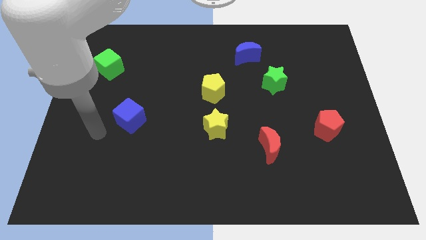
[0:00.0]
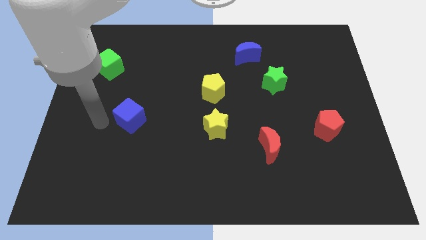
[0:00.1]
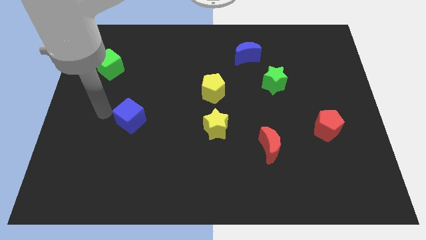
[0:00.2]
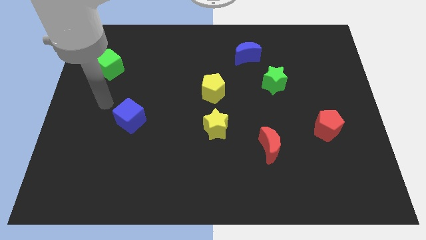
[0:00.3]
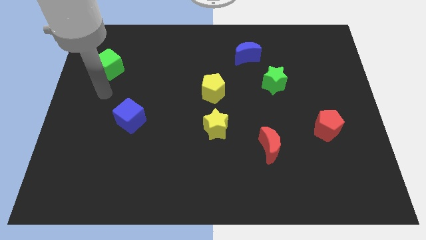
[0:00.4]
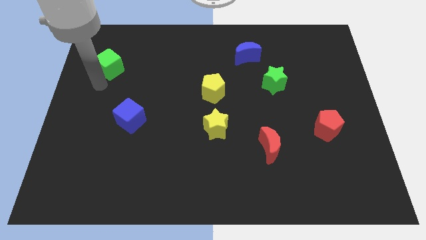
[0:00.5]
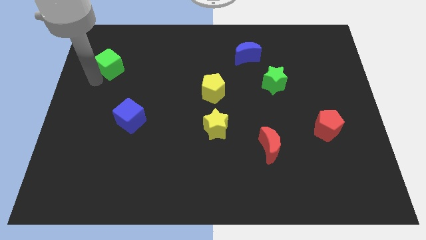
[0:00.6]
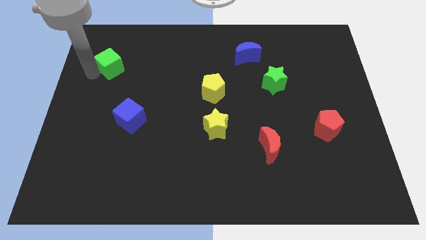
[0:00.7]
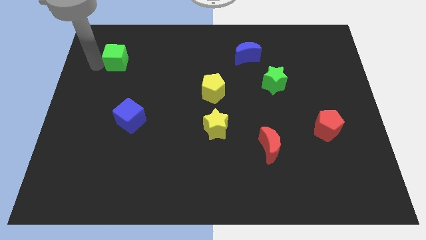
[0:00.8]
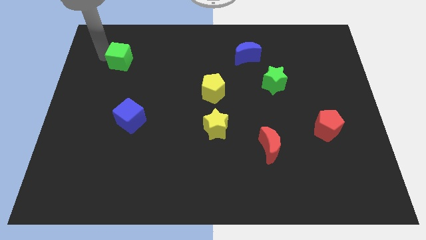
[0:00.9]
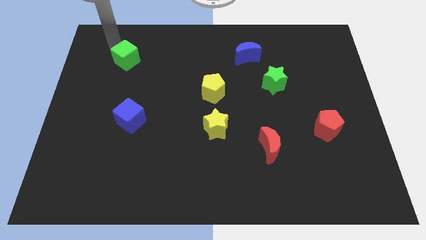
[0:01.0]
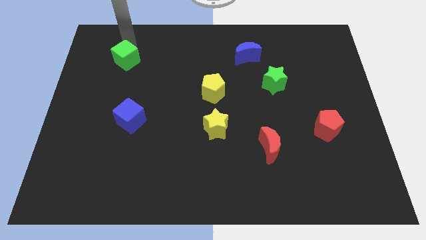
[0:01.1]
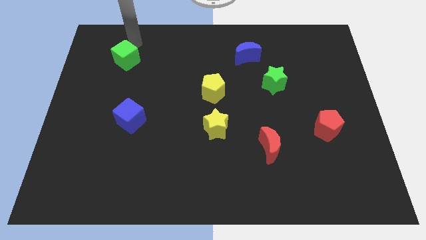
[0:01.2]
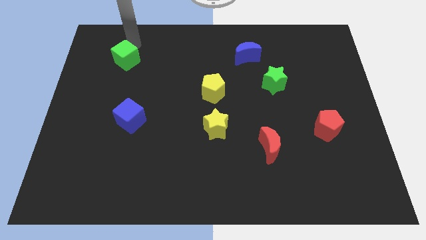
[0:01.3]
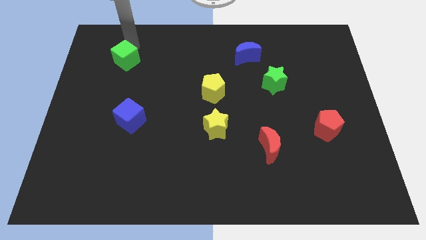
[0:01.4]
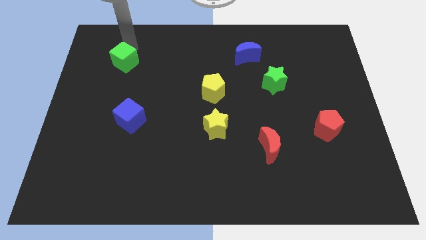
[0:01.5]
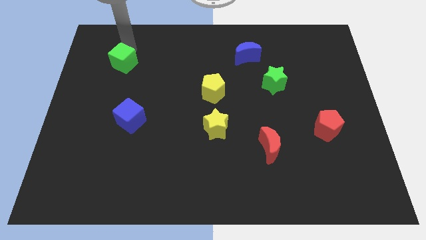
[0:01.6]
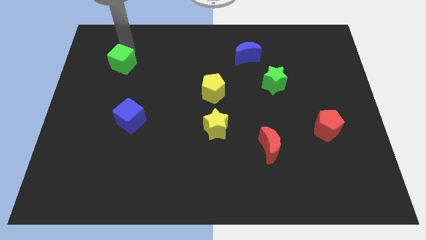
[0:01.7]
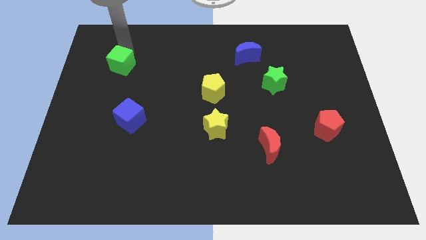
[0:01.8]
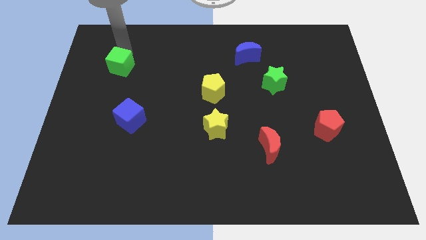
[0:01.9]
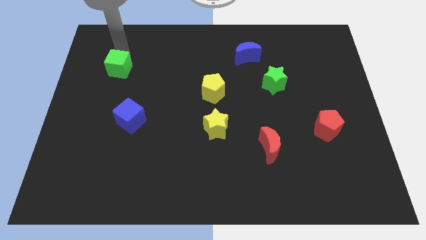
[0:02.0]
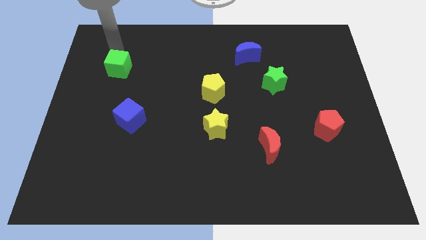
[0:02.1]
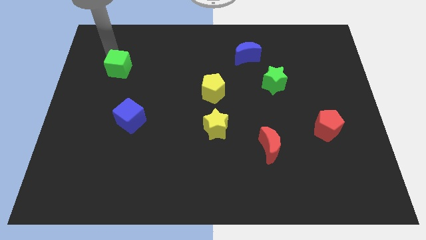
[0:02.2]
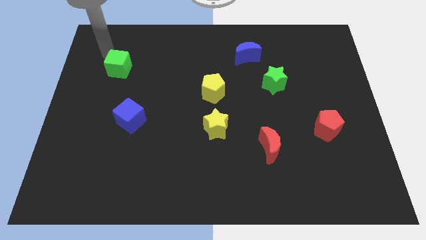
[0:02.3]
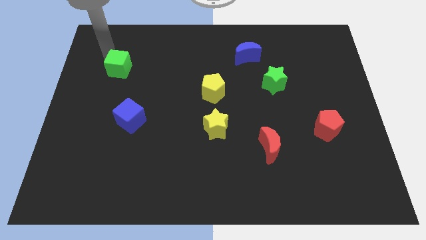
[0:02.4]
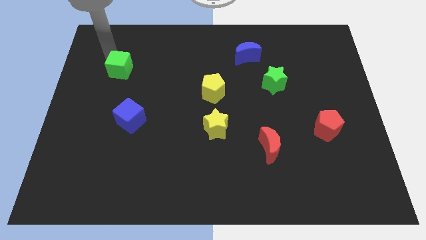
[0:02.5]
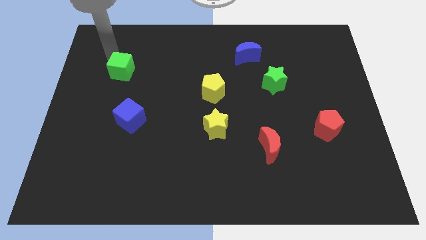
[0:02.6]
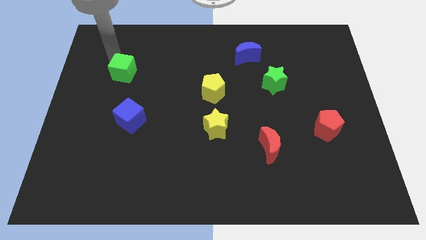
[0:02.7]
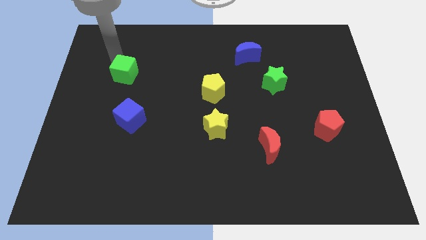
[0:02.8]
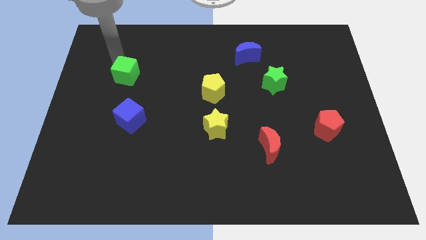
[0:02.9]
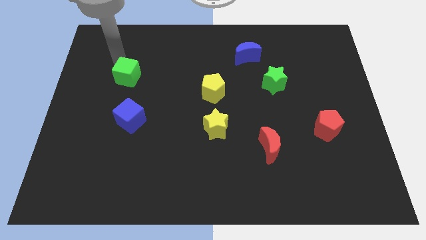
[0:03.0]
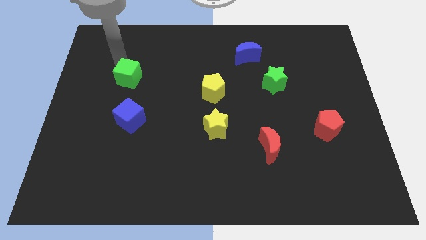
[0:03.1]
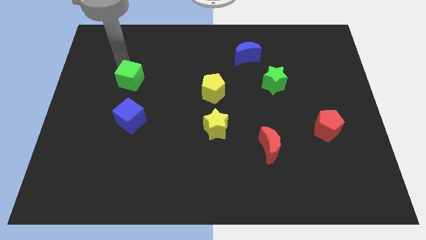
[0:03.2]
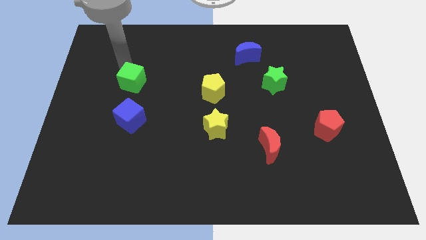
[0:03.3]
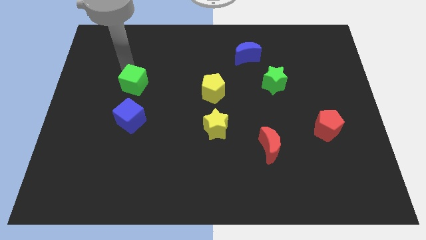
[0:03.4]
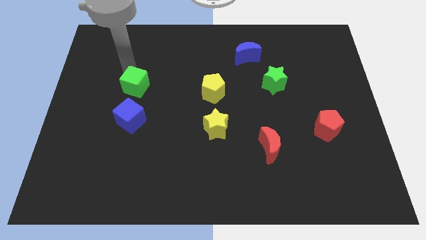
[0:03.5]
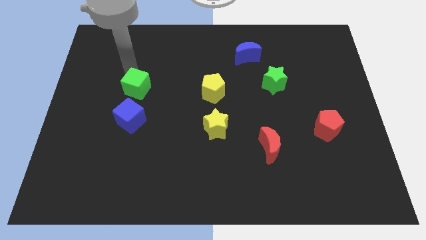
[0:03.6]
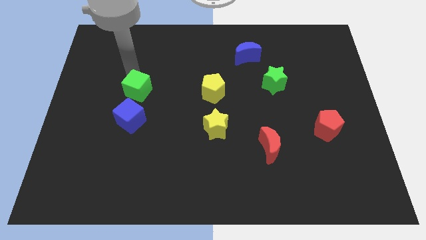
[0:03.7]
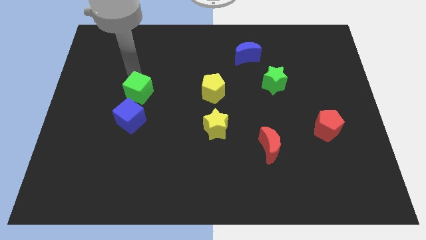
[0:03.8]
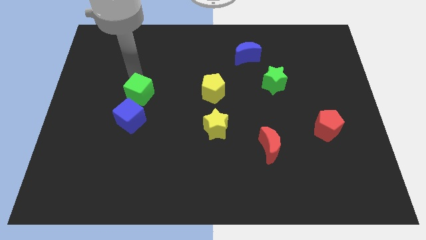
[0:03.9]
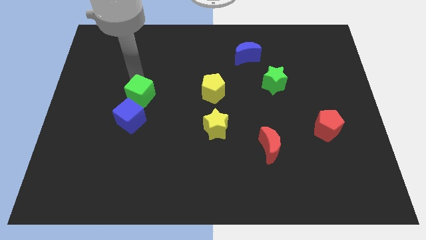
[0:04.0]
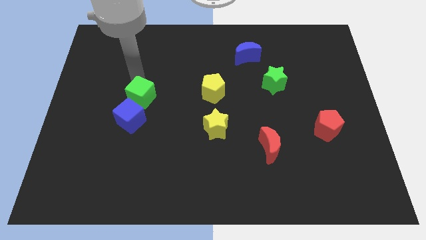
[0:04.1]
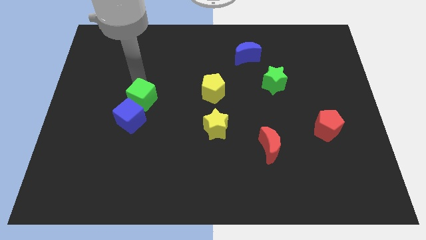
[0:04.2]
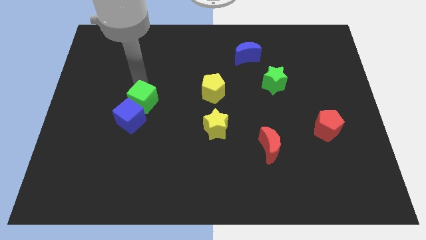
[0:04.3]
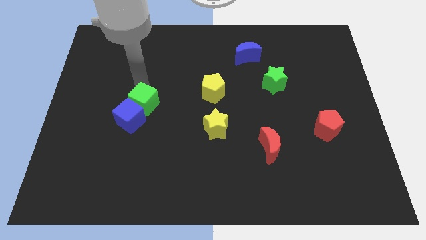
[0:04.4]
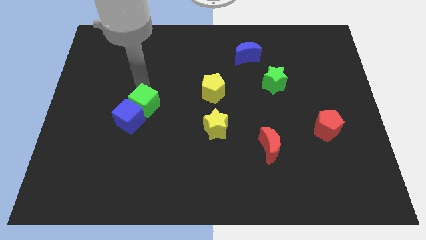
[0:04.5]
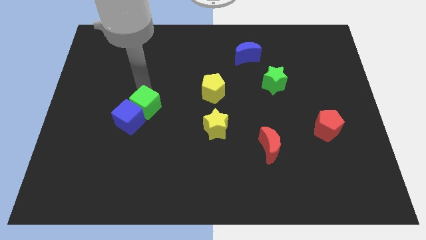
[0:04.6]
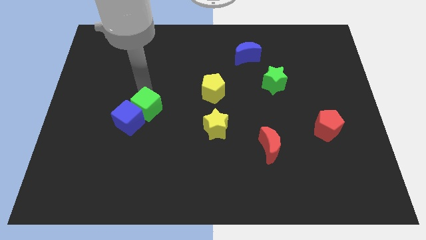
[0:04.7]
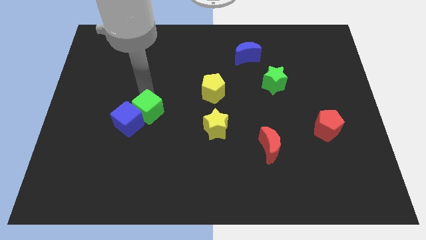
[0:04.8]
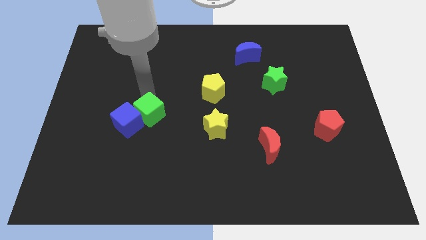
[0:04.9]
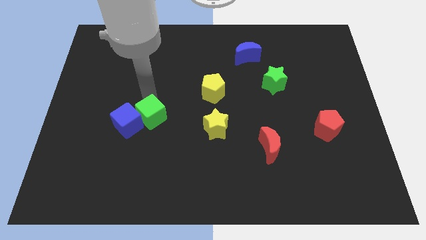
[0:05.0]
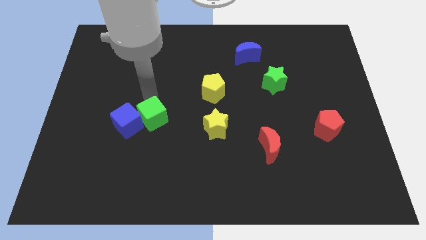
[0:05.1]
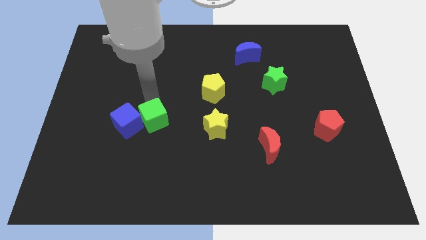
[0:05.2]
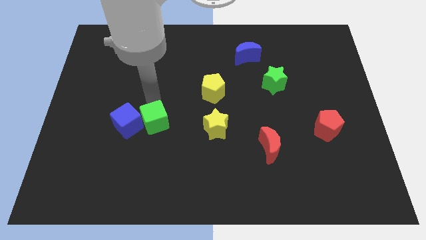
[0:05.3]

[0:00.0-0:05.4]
put the green cube diagonally down and to the right of the blue cube
